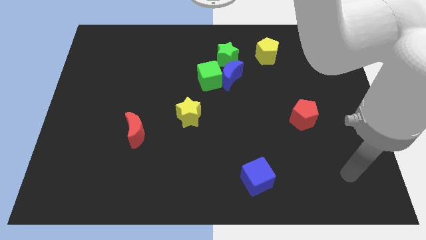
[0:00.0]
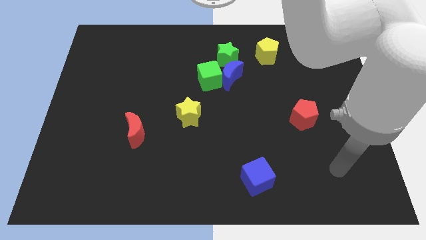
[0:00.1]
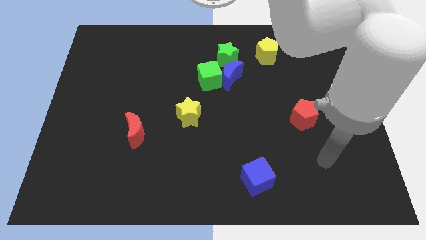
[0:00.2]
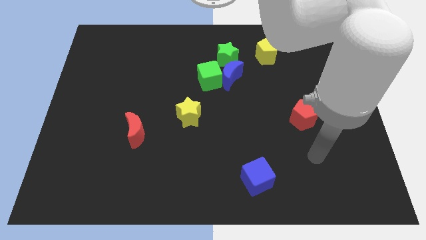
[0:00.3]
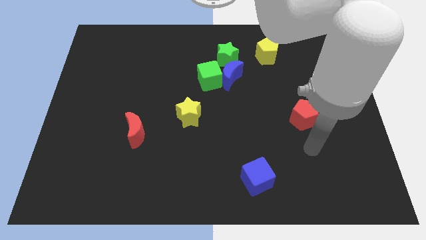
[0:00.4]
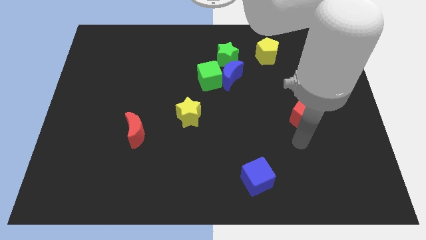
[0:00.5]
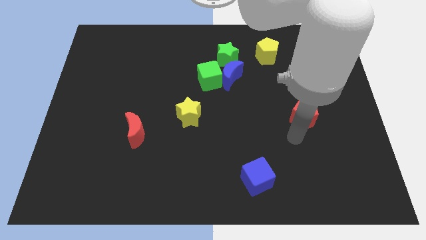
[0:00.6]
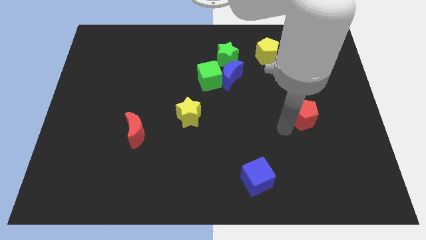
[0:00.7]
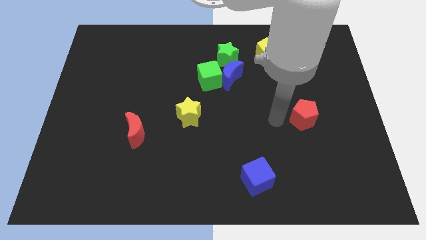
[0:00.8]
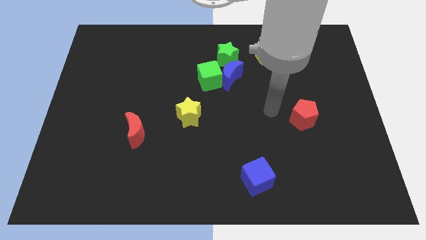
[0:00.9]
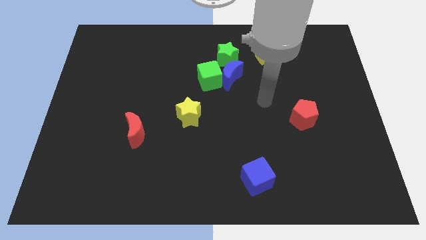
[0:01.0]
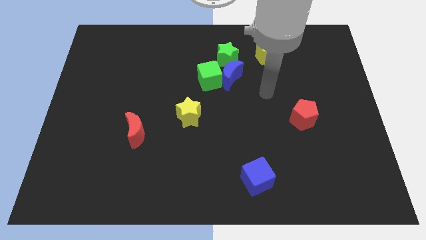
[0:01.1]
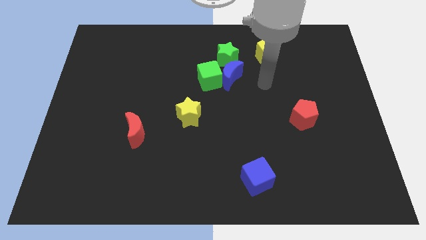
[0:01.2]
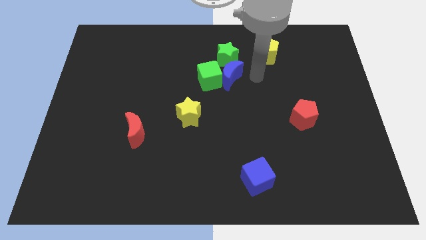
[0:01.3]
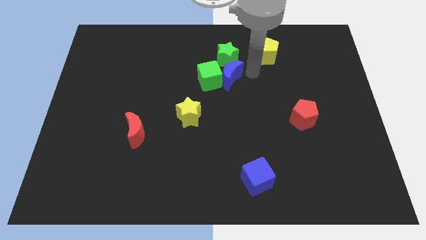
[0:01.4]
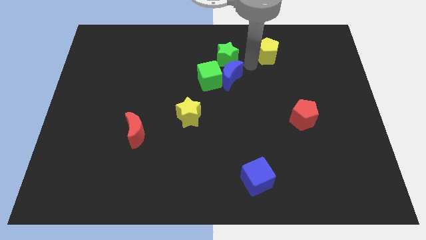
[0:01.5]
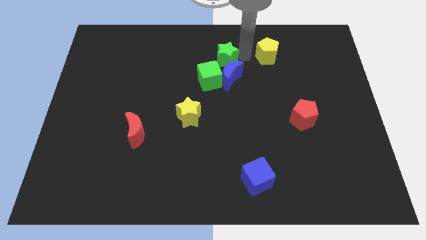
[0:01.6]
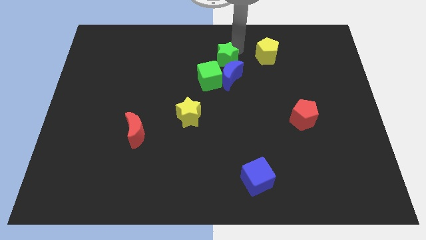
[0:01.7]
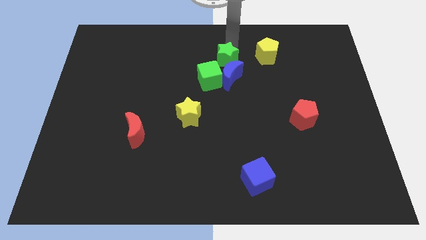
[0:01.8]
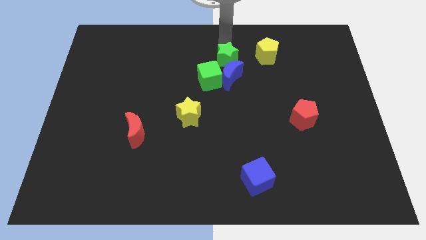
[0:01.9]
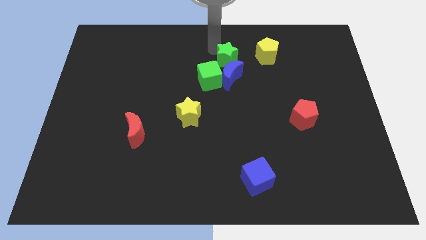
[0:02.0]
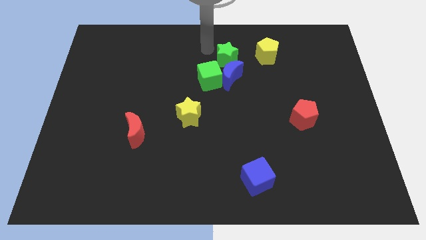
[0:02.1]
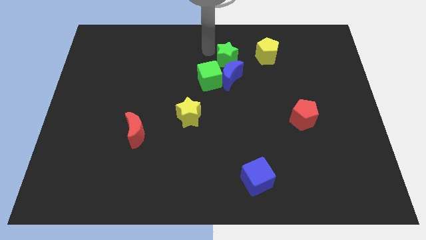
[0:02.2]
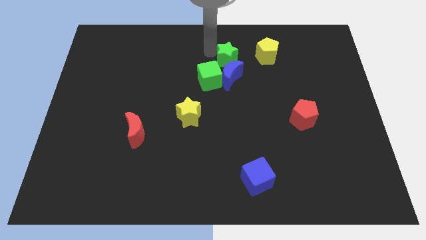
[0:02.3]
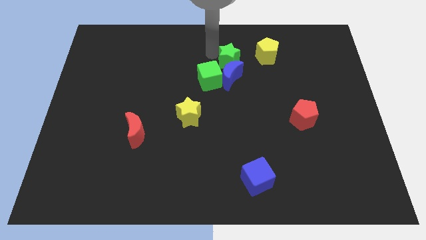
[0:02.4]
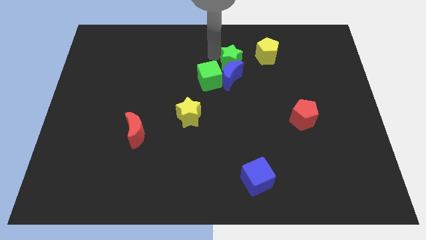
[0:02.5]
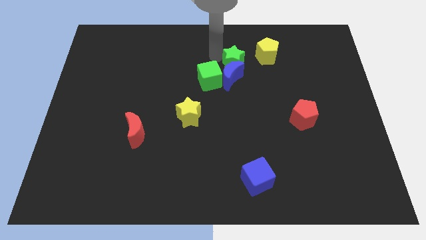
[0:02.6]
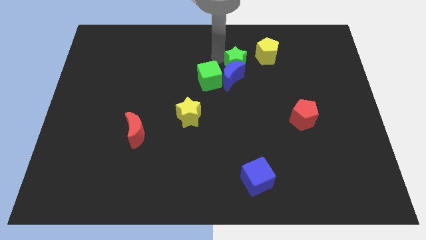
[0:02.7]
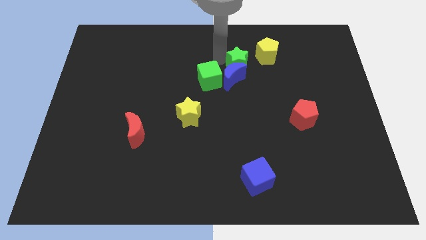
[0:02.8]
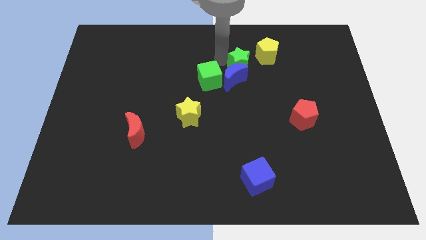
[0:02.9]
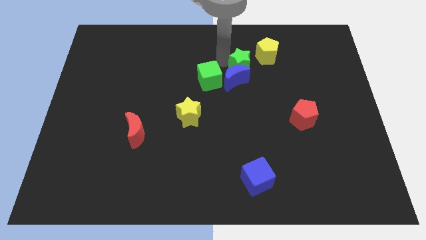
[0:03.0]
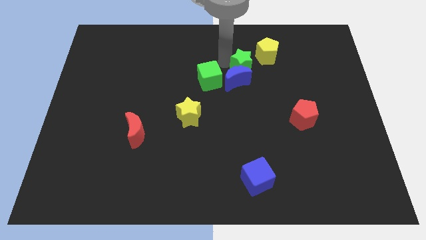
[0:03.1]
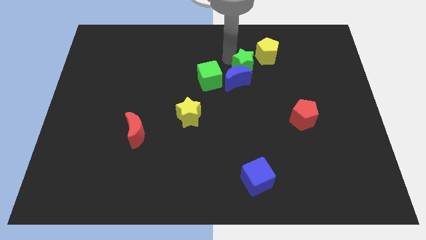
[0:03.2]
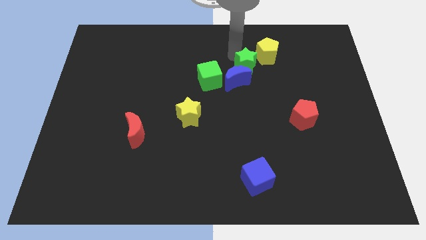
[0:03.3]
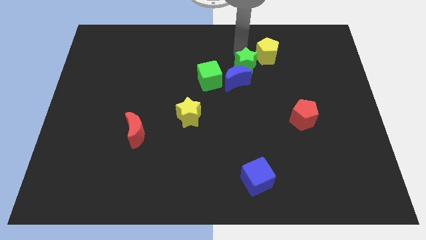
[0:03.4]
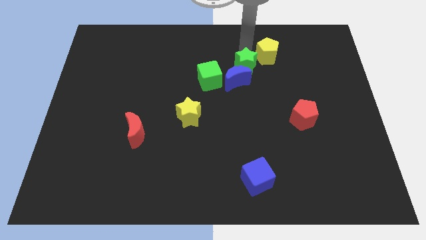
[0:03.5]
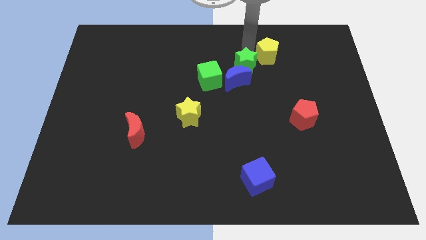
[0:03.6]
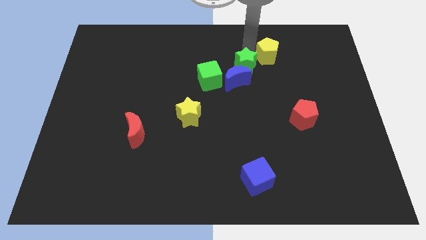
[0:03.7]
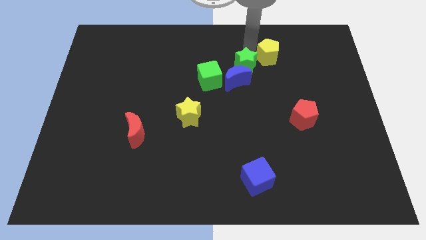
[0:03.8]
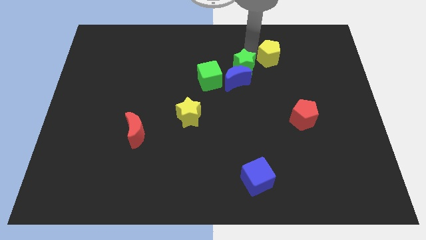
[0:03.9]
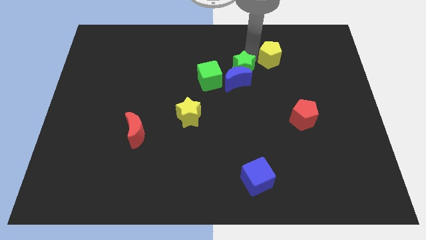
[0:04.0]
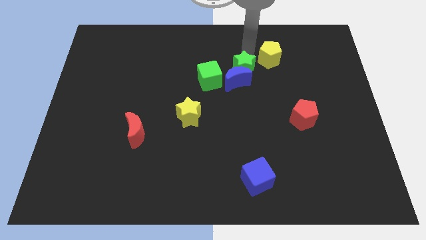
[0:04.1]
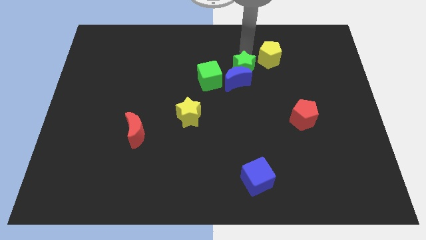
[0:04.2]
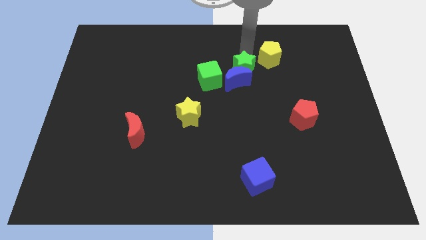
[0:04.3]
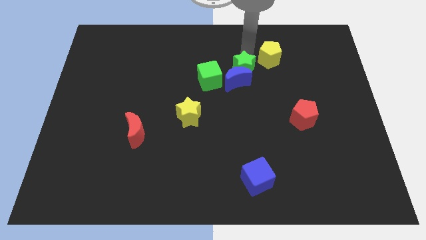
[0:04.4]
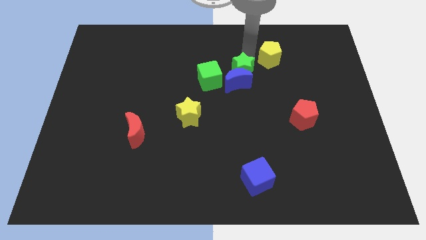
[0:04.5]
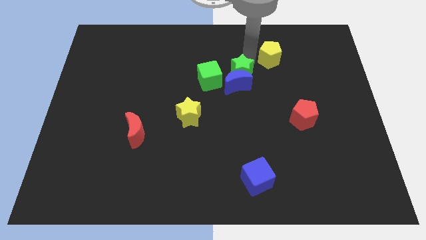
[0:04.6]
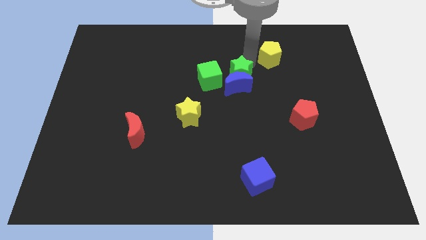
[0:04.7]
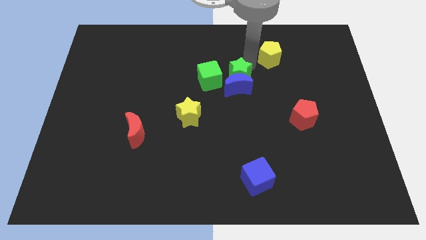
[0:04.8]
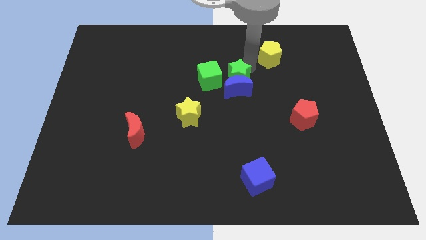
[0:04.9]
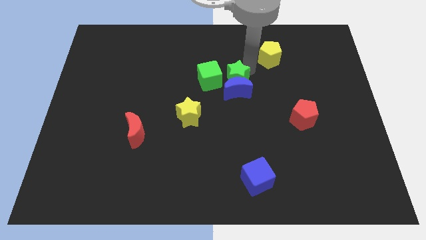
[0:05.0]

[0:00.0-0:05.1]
slightly push the green star down

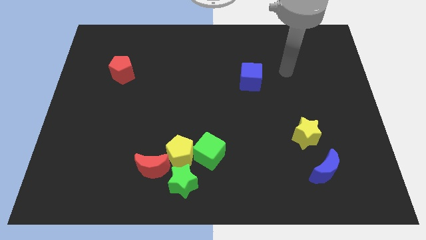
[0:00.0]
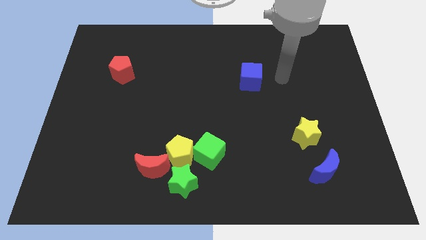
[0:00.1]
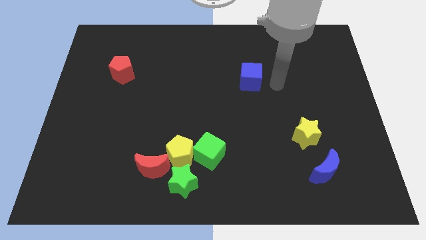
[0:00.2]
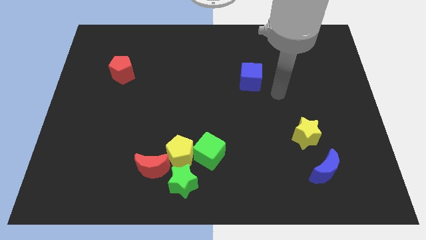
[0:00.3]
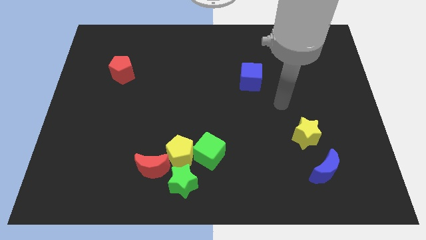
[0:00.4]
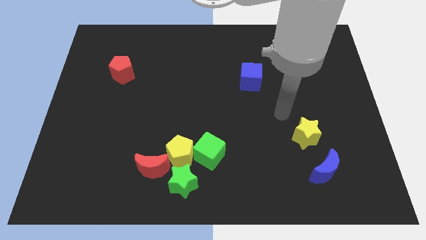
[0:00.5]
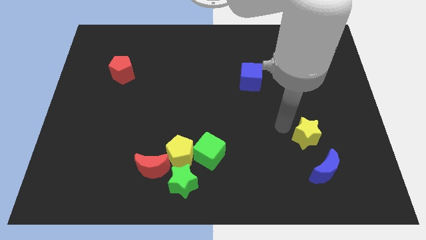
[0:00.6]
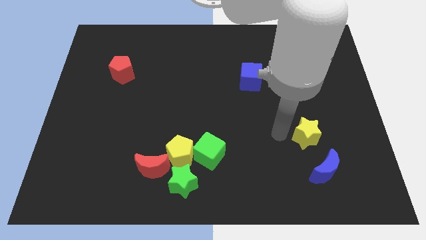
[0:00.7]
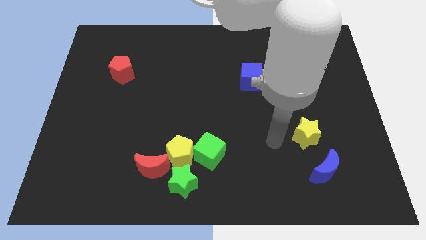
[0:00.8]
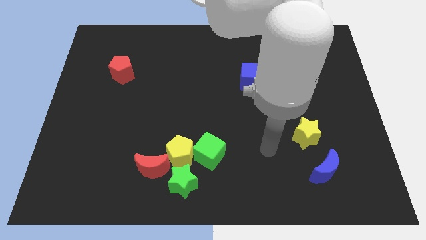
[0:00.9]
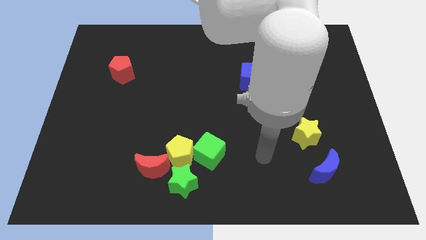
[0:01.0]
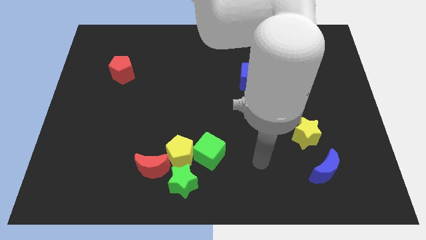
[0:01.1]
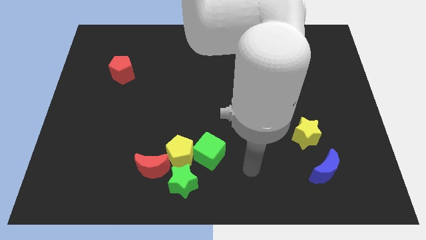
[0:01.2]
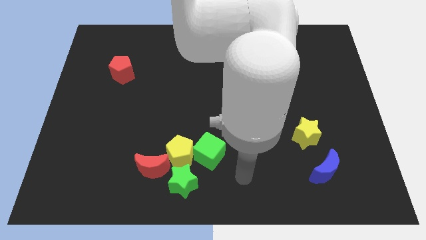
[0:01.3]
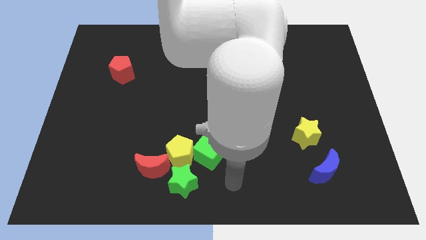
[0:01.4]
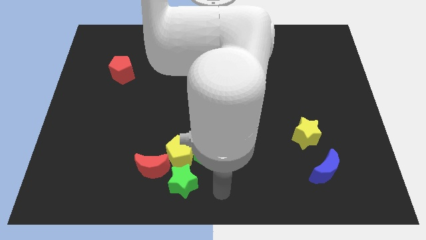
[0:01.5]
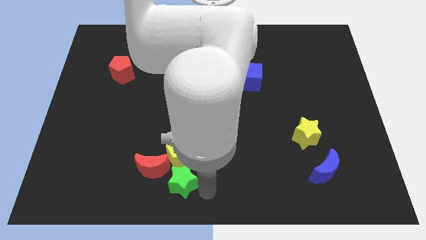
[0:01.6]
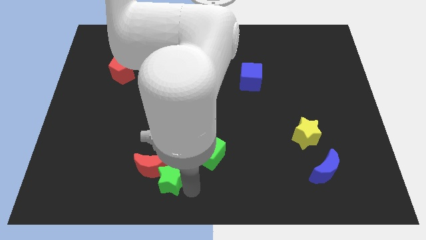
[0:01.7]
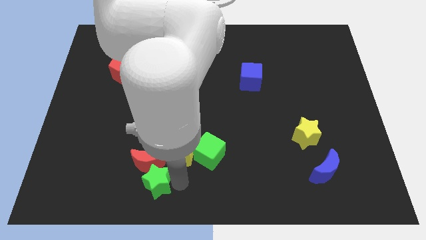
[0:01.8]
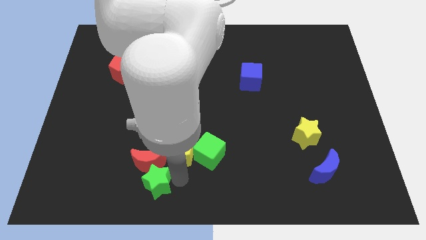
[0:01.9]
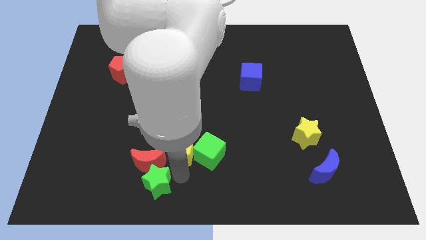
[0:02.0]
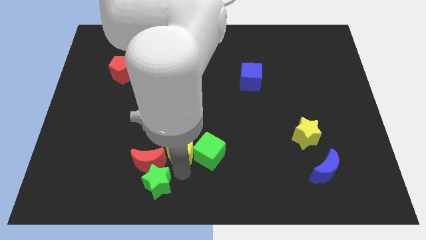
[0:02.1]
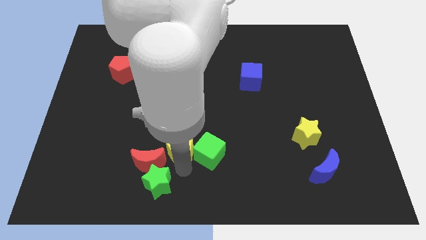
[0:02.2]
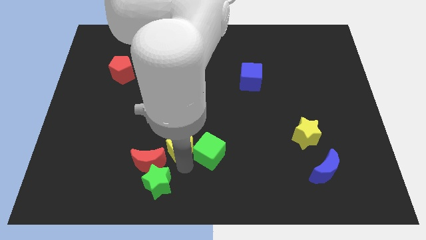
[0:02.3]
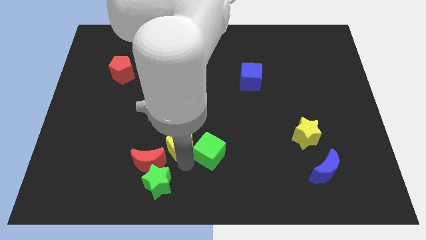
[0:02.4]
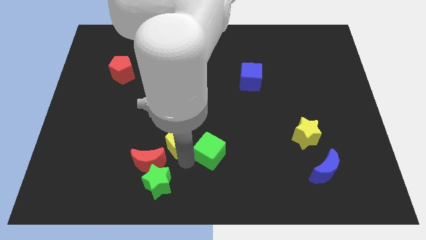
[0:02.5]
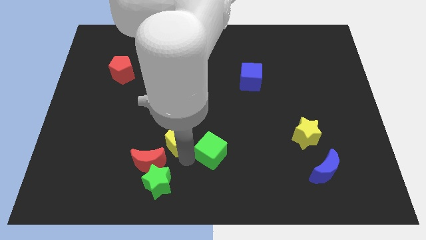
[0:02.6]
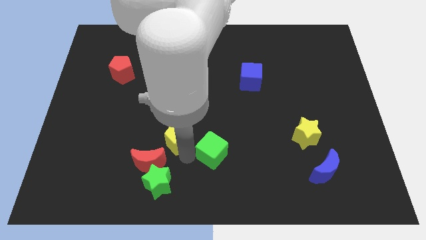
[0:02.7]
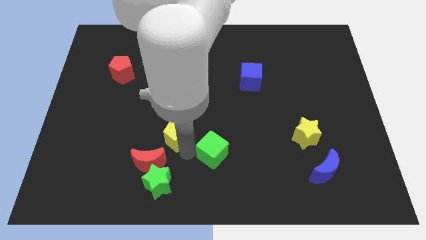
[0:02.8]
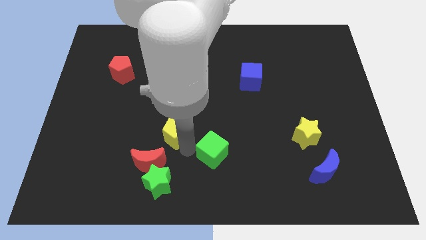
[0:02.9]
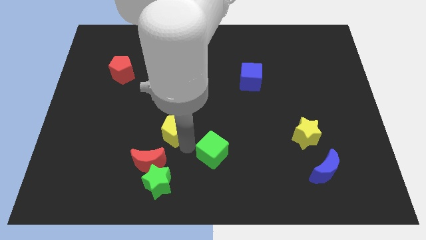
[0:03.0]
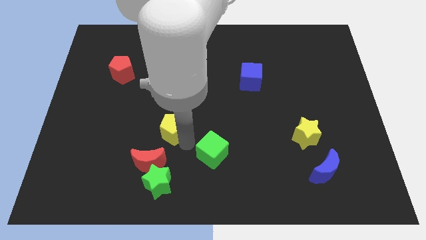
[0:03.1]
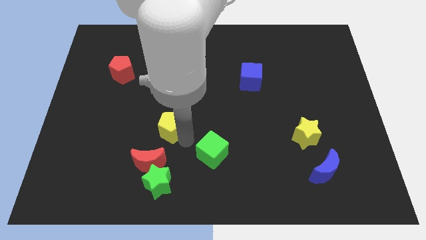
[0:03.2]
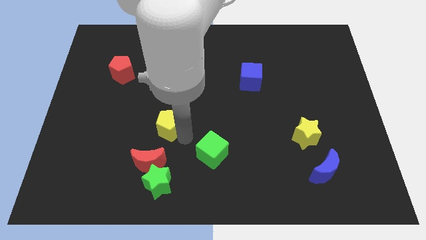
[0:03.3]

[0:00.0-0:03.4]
push the yellow pentagon up somewhat
